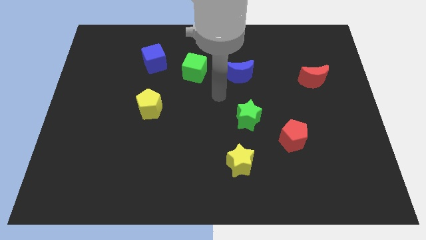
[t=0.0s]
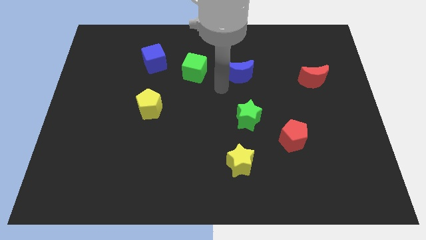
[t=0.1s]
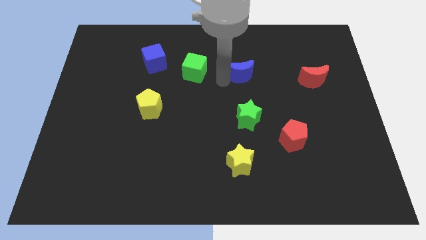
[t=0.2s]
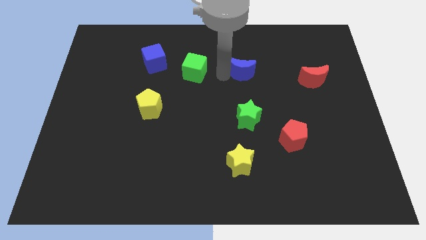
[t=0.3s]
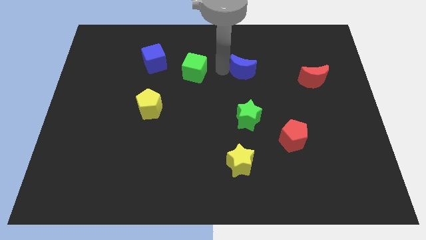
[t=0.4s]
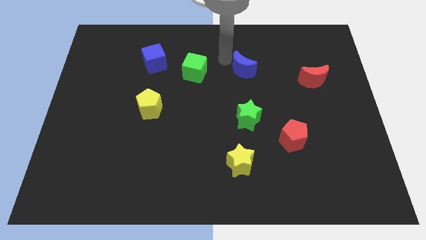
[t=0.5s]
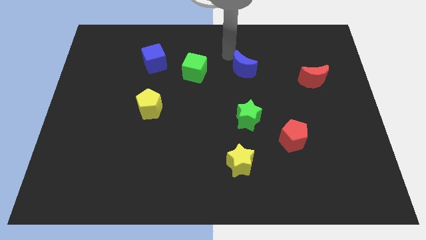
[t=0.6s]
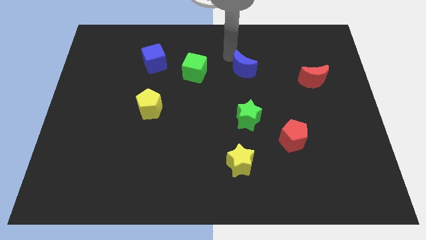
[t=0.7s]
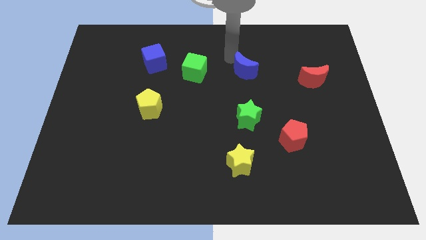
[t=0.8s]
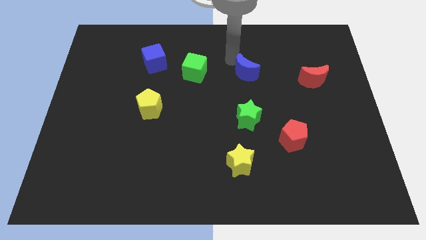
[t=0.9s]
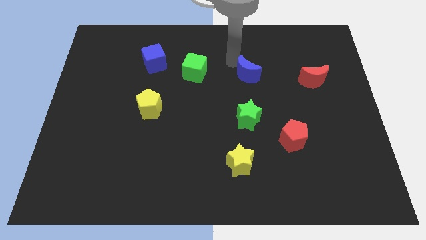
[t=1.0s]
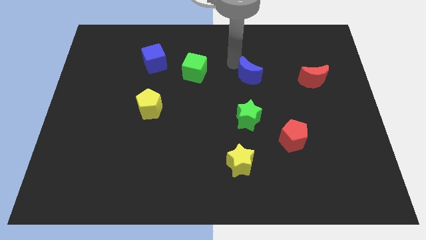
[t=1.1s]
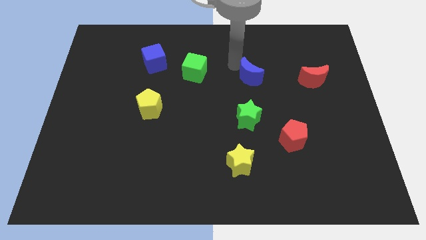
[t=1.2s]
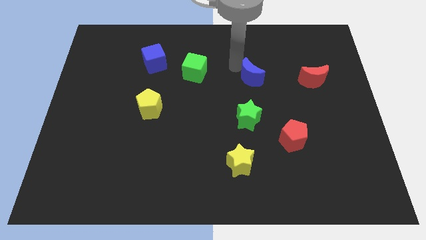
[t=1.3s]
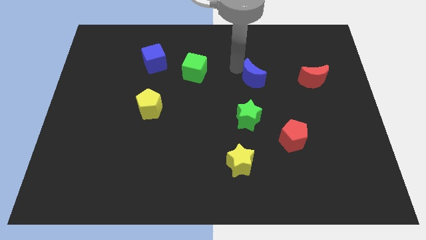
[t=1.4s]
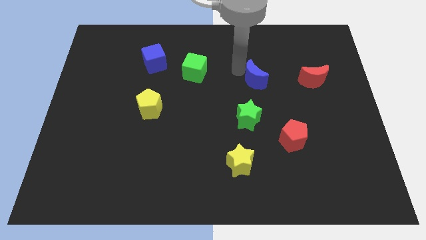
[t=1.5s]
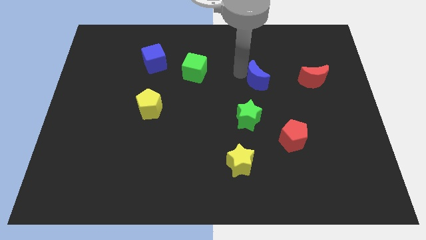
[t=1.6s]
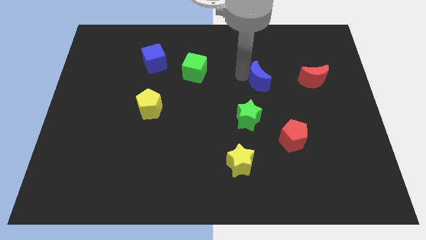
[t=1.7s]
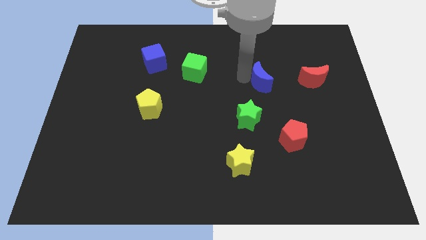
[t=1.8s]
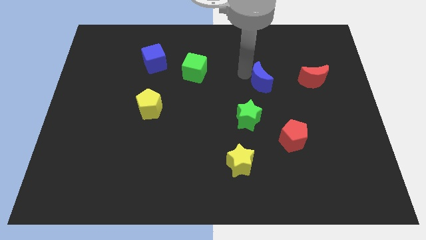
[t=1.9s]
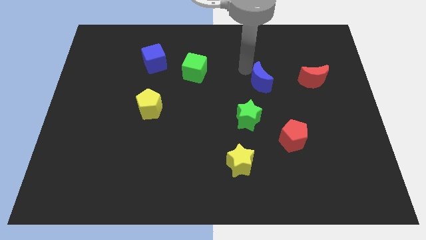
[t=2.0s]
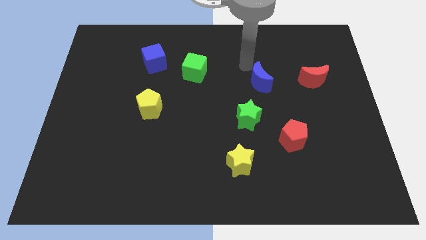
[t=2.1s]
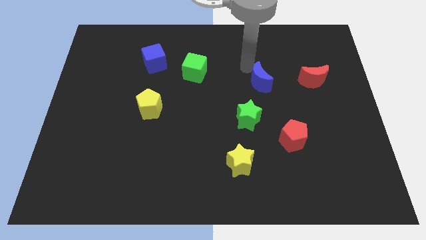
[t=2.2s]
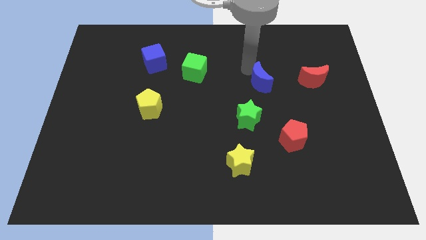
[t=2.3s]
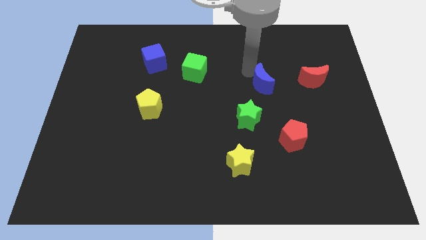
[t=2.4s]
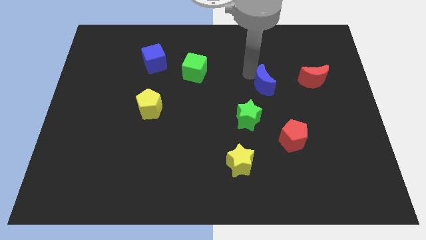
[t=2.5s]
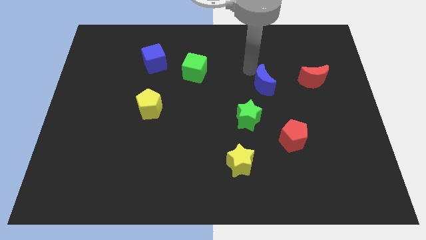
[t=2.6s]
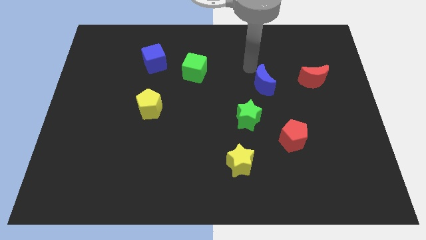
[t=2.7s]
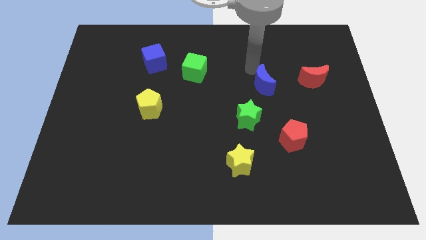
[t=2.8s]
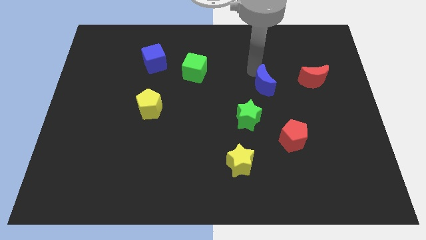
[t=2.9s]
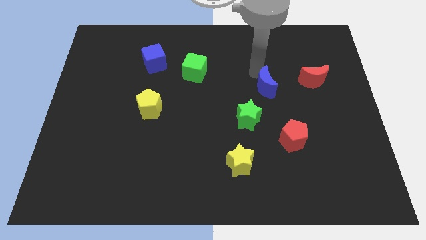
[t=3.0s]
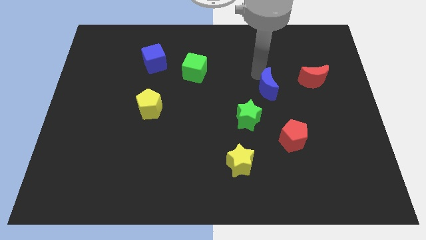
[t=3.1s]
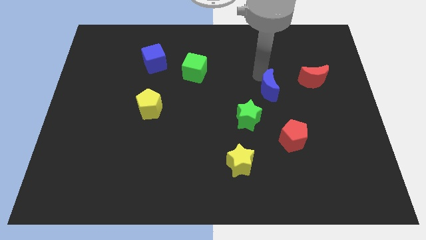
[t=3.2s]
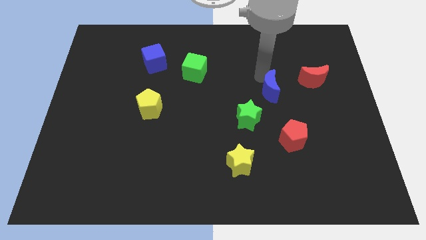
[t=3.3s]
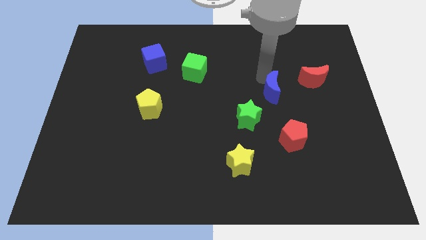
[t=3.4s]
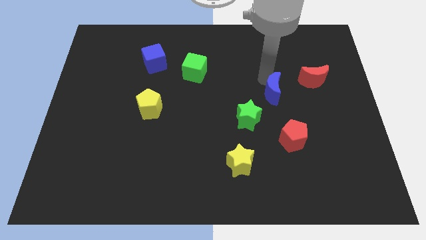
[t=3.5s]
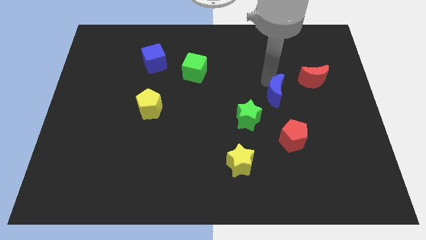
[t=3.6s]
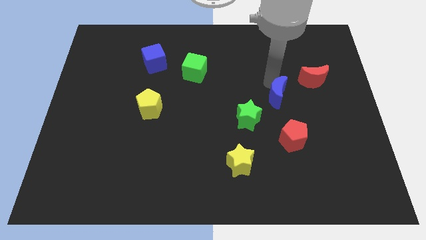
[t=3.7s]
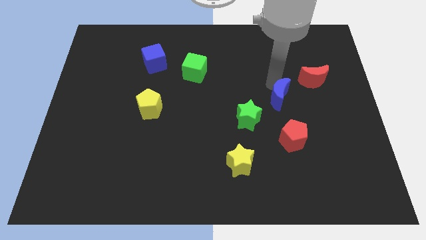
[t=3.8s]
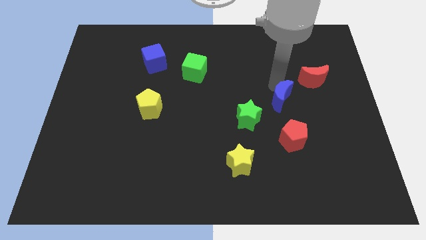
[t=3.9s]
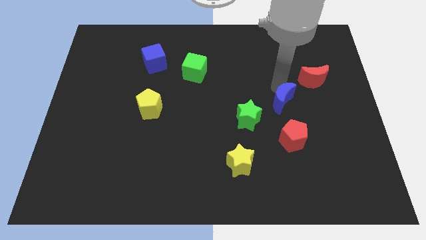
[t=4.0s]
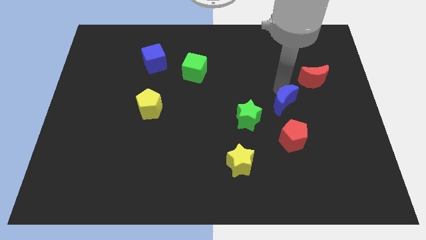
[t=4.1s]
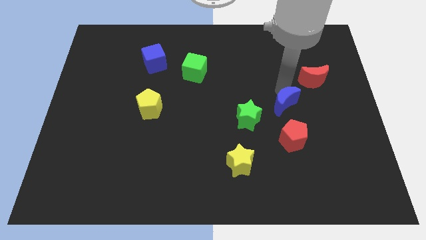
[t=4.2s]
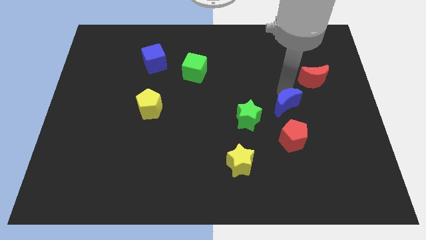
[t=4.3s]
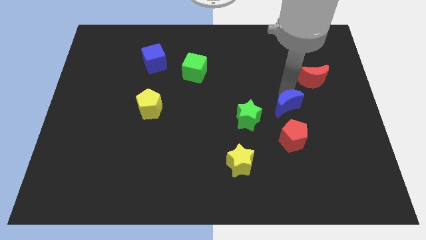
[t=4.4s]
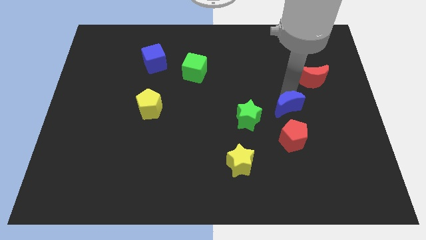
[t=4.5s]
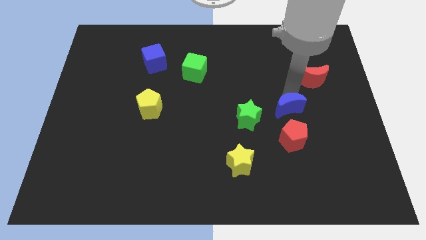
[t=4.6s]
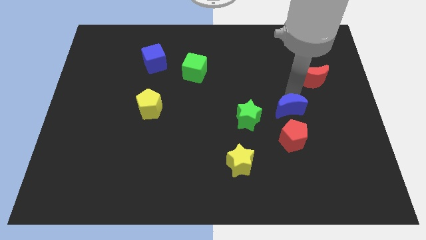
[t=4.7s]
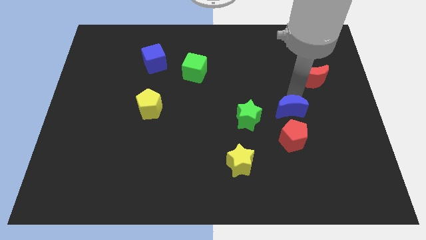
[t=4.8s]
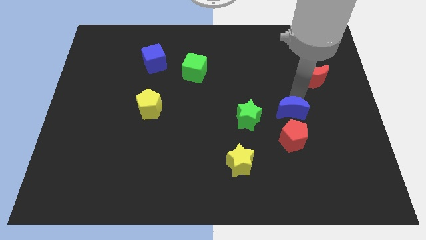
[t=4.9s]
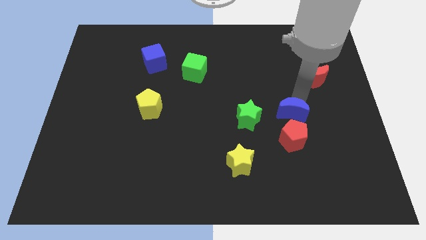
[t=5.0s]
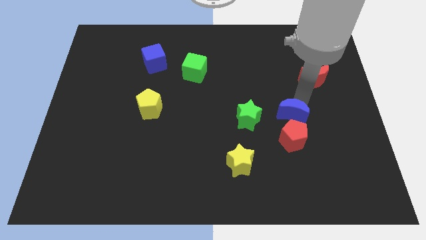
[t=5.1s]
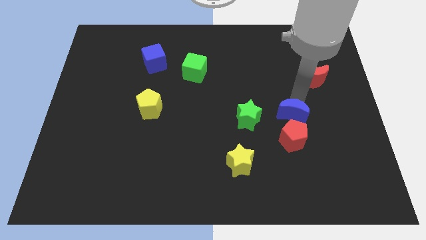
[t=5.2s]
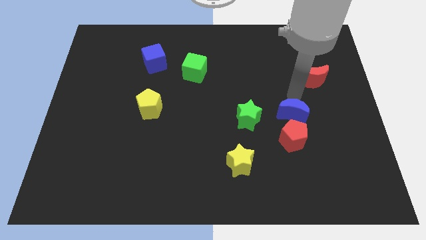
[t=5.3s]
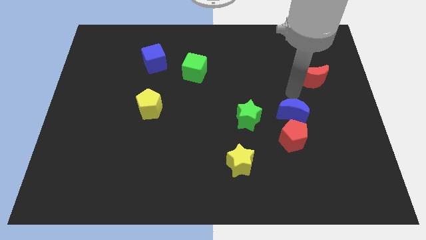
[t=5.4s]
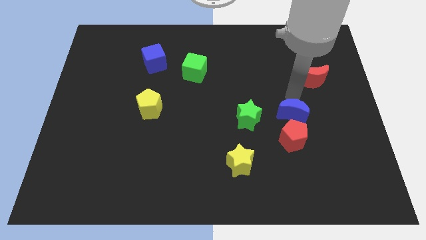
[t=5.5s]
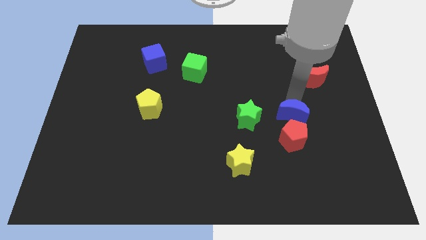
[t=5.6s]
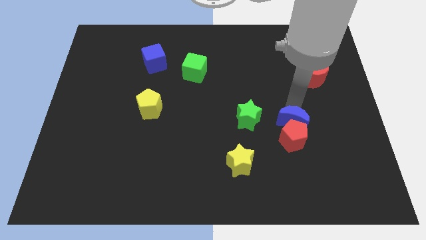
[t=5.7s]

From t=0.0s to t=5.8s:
move the blue moon close to the red pentagon

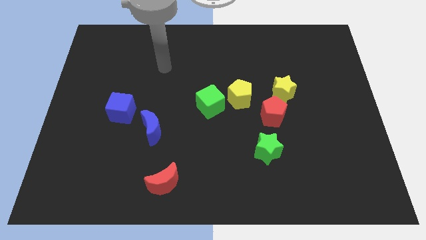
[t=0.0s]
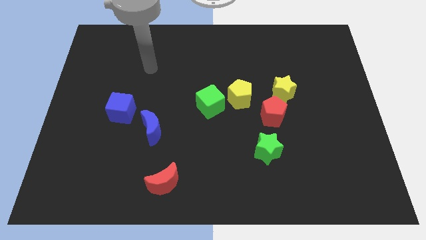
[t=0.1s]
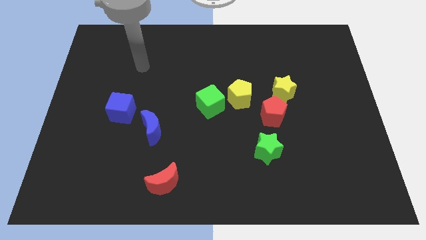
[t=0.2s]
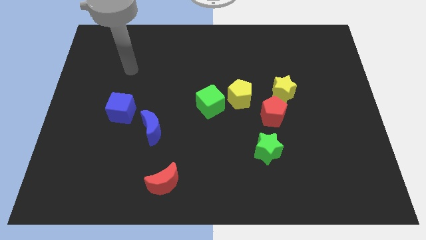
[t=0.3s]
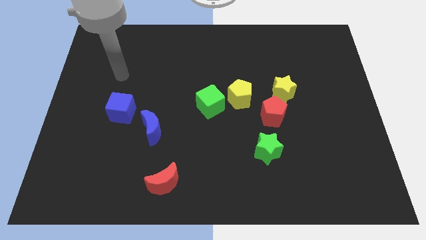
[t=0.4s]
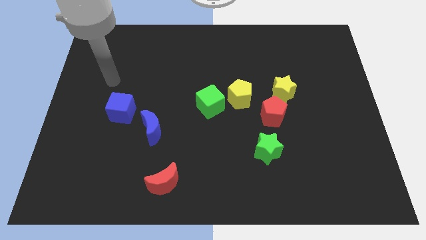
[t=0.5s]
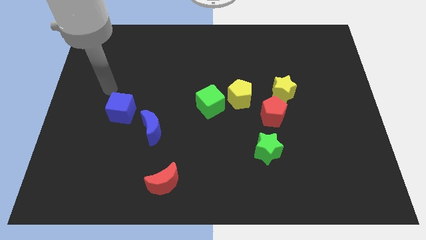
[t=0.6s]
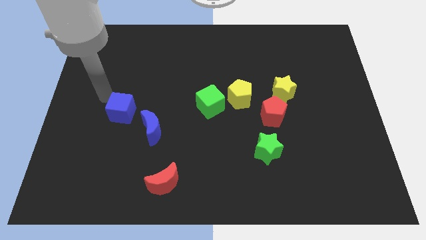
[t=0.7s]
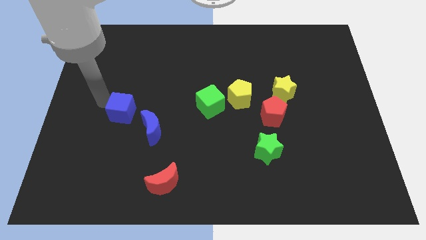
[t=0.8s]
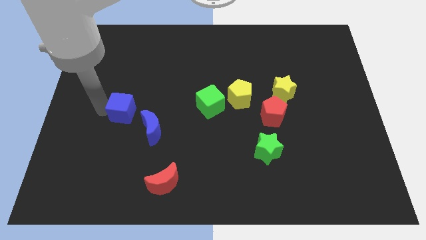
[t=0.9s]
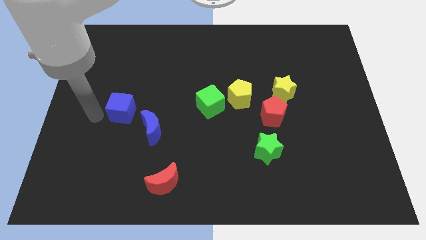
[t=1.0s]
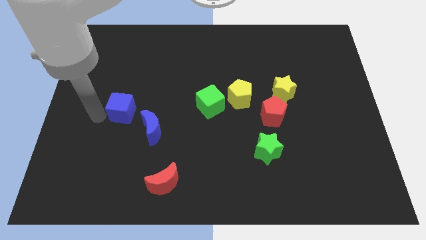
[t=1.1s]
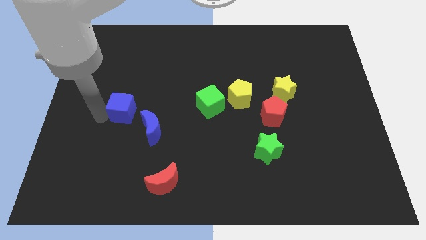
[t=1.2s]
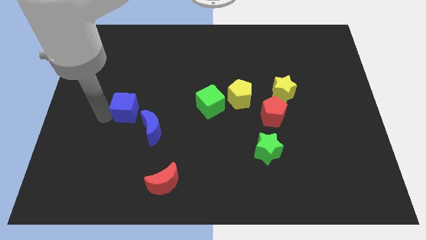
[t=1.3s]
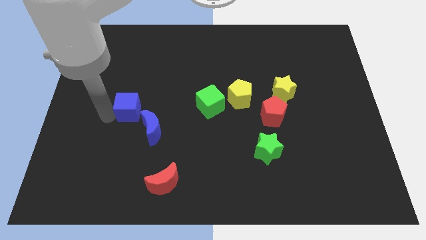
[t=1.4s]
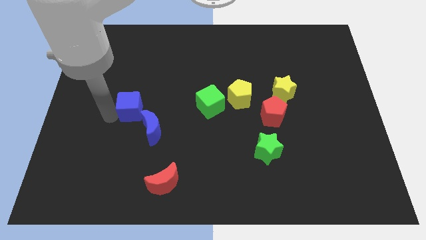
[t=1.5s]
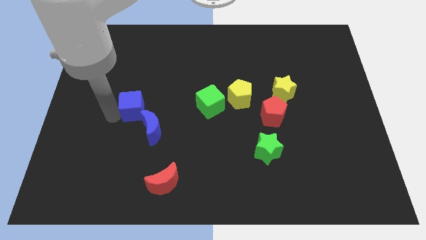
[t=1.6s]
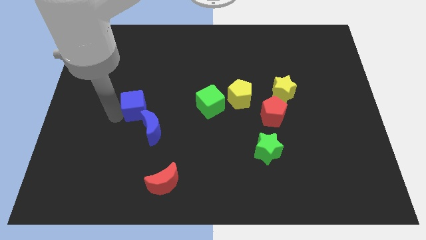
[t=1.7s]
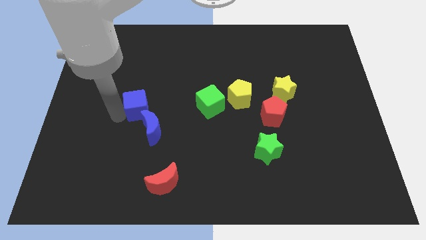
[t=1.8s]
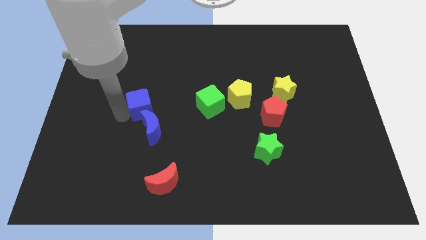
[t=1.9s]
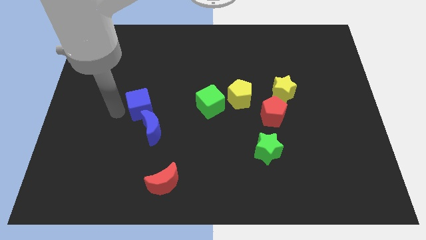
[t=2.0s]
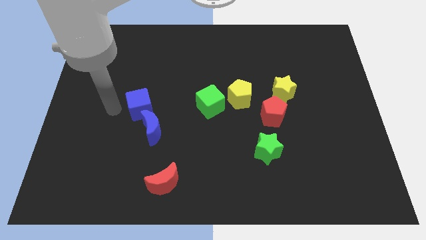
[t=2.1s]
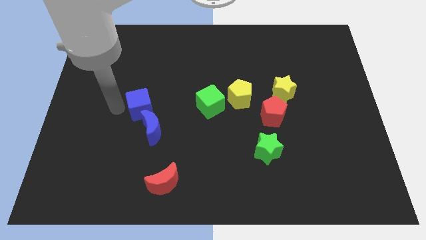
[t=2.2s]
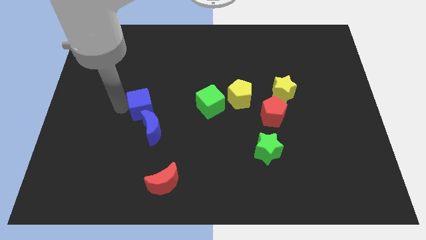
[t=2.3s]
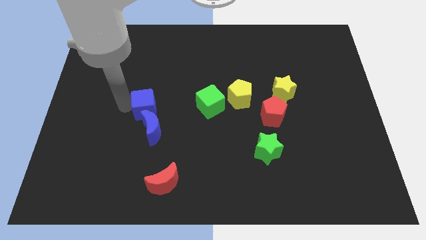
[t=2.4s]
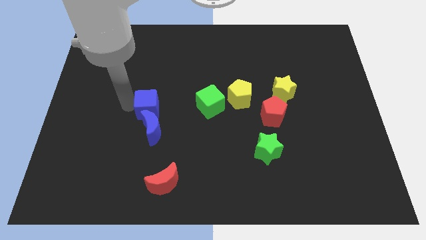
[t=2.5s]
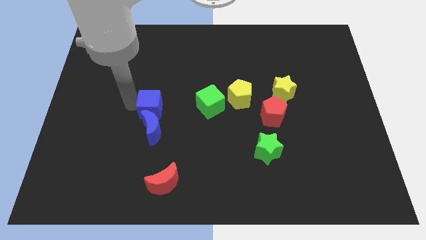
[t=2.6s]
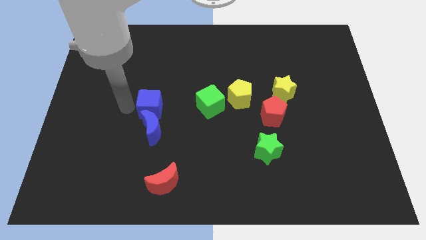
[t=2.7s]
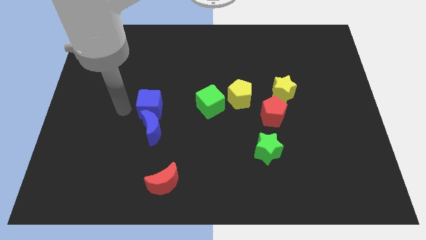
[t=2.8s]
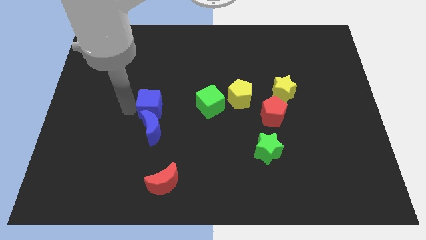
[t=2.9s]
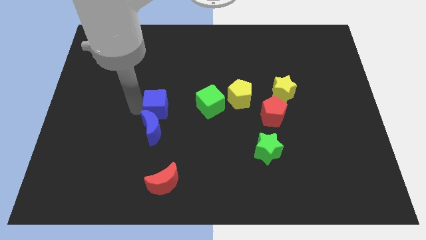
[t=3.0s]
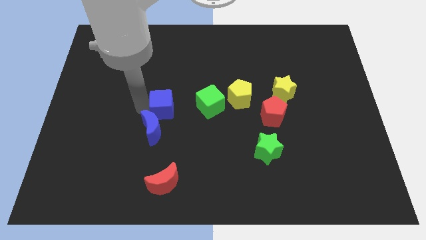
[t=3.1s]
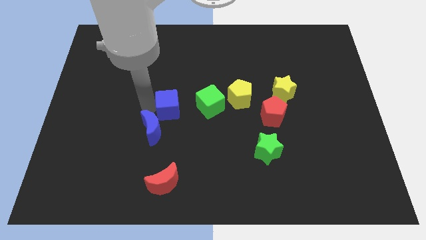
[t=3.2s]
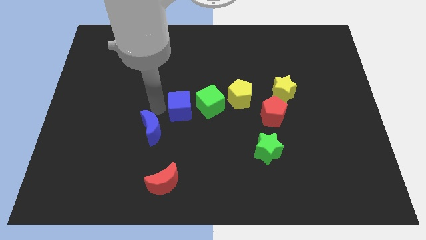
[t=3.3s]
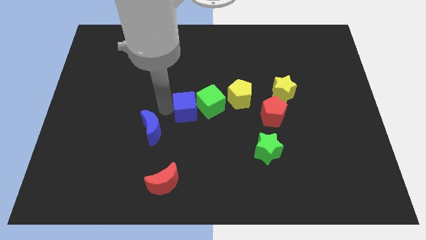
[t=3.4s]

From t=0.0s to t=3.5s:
slide the blue cube to the green cube
